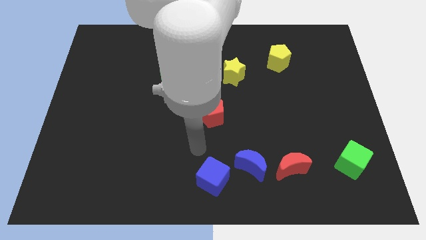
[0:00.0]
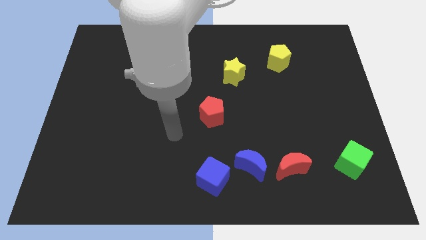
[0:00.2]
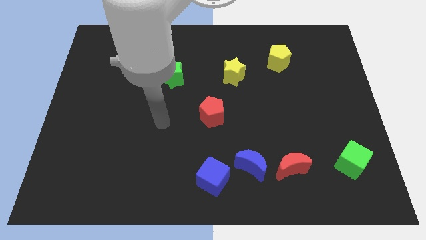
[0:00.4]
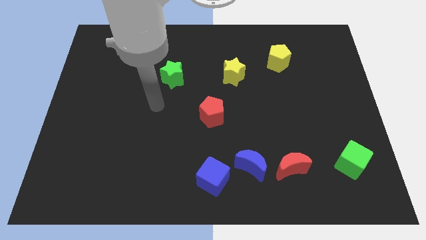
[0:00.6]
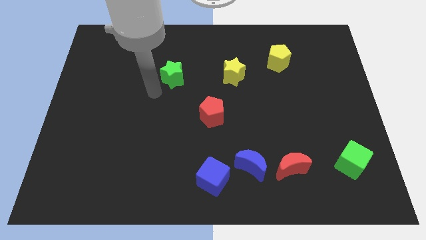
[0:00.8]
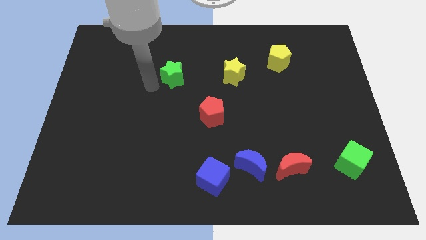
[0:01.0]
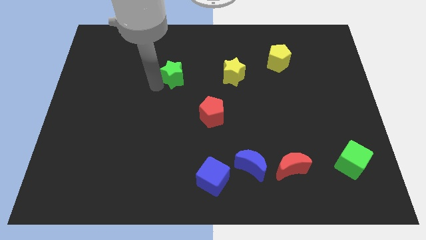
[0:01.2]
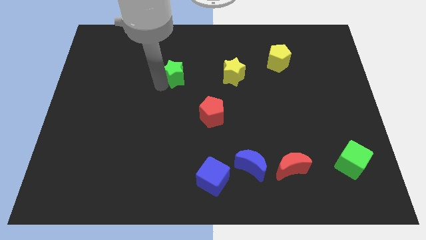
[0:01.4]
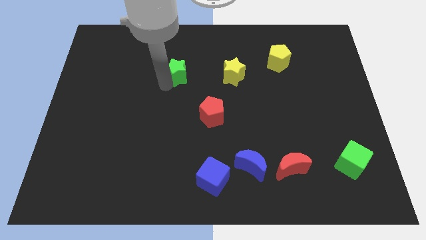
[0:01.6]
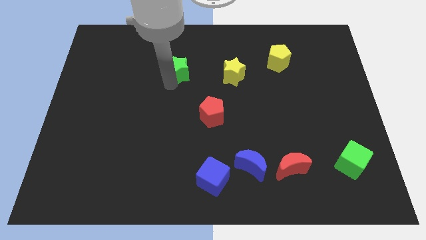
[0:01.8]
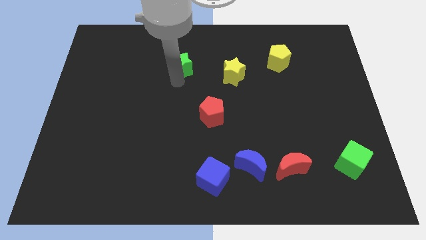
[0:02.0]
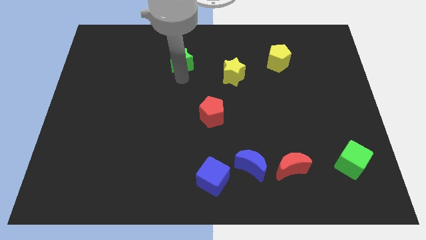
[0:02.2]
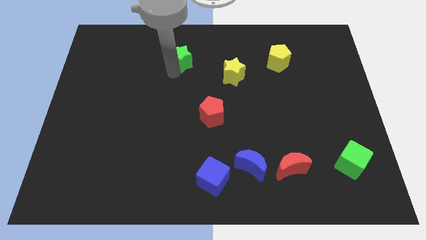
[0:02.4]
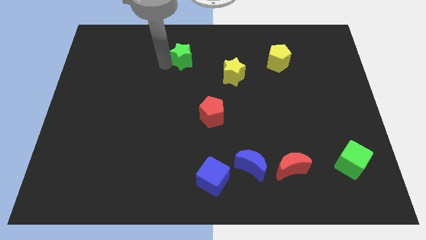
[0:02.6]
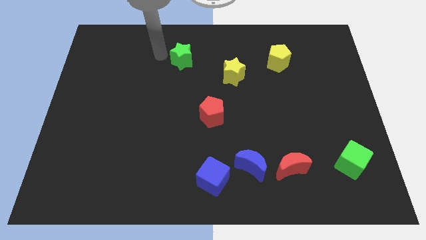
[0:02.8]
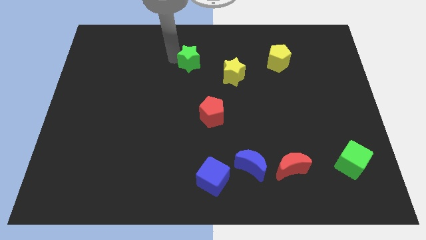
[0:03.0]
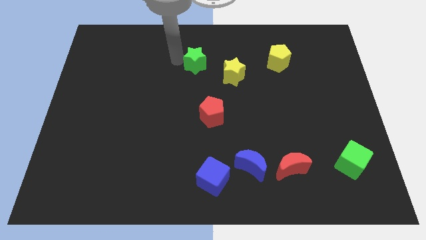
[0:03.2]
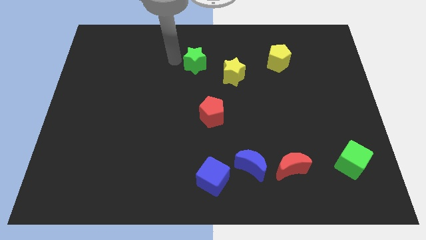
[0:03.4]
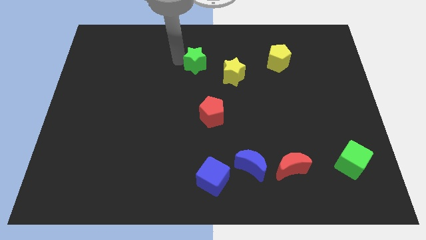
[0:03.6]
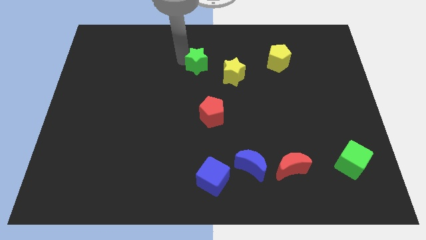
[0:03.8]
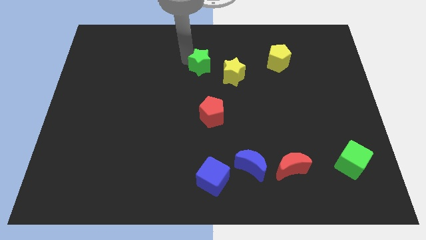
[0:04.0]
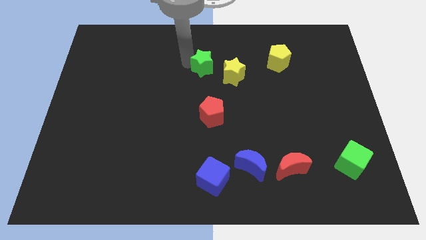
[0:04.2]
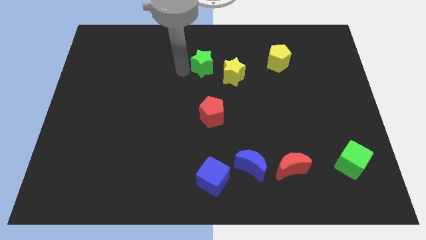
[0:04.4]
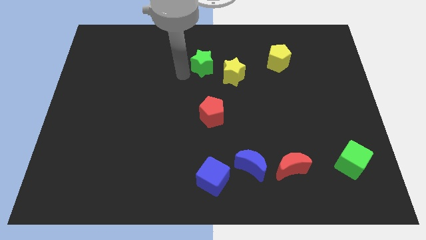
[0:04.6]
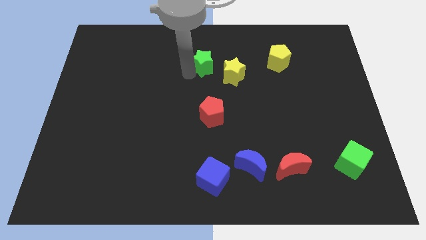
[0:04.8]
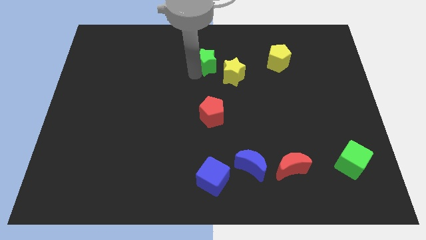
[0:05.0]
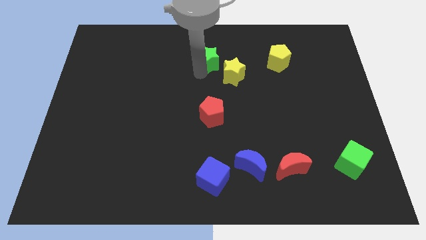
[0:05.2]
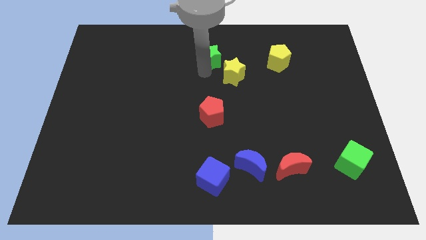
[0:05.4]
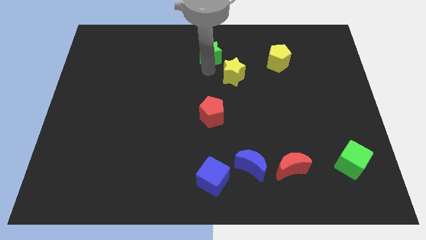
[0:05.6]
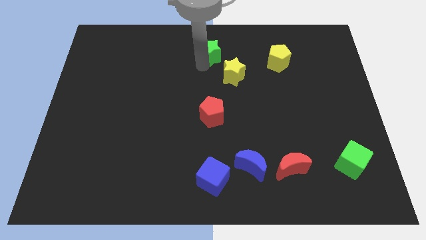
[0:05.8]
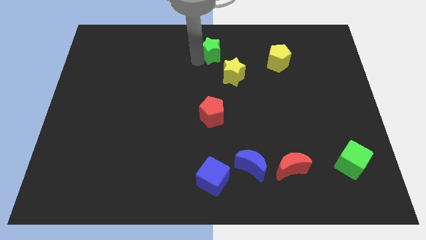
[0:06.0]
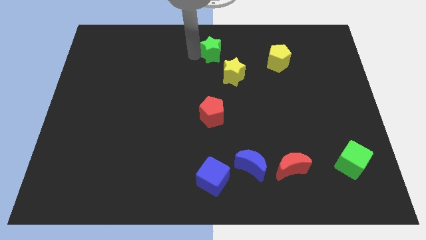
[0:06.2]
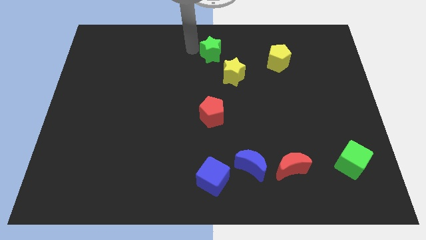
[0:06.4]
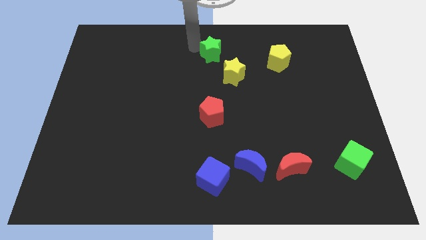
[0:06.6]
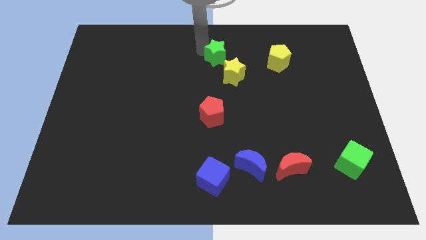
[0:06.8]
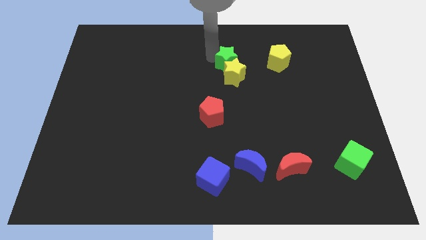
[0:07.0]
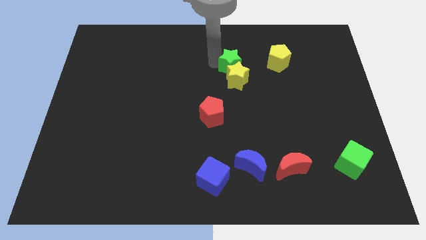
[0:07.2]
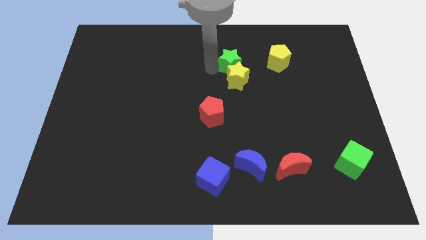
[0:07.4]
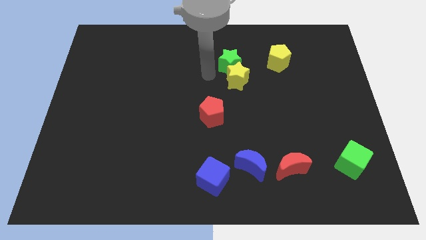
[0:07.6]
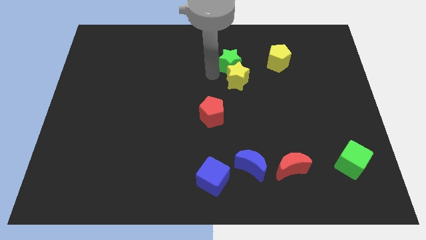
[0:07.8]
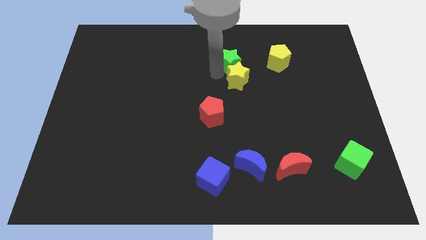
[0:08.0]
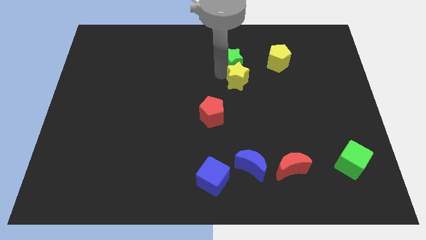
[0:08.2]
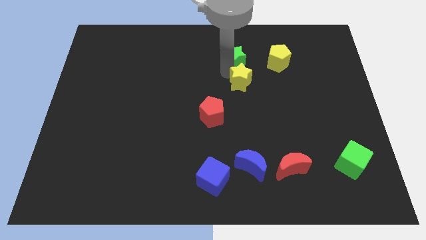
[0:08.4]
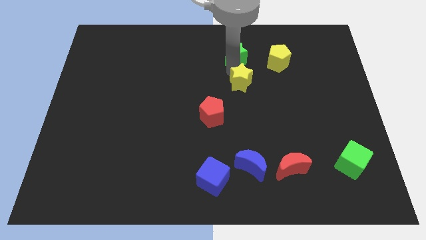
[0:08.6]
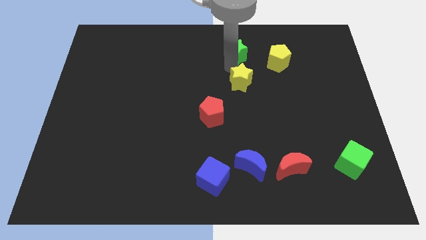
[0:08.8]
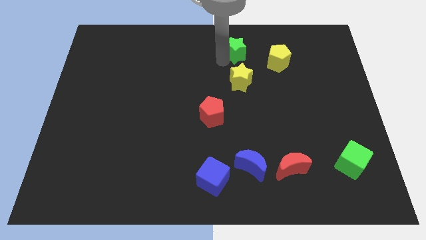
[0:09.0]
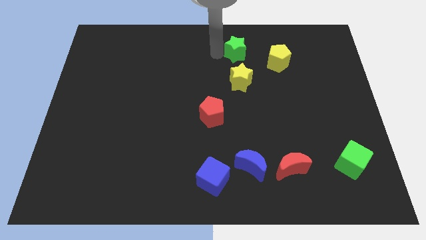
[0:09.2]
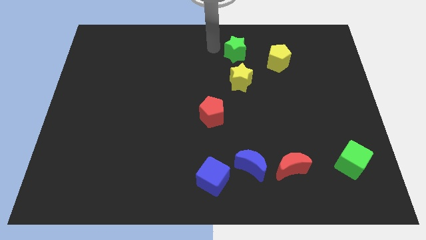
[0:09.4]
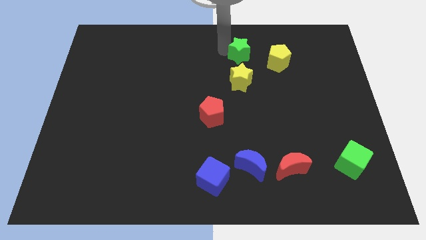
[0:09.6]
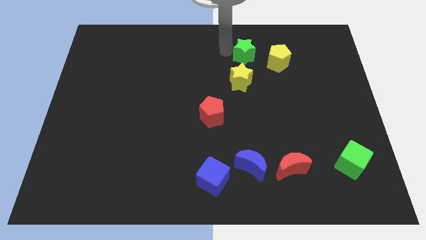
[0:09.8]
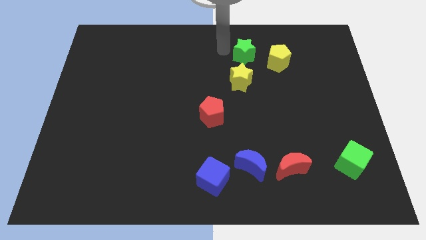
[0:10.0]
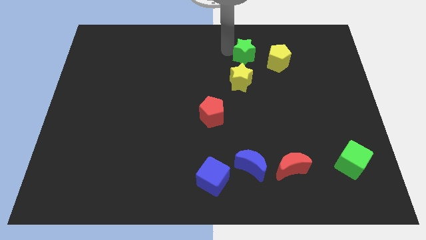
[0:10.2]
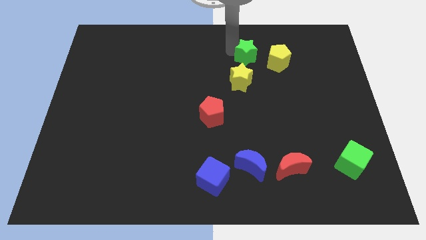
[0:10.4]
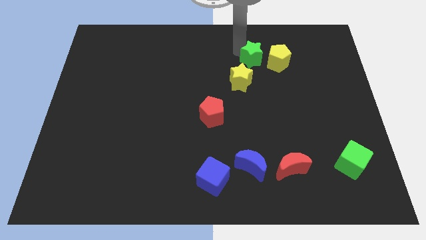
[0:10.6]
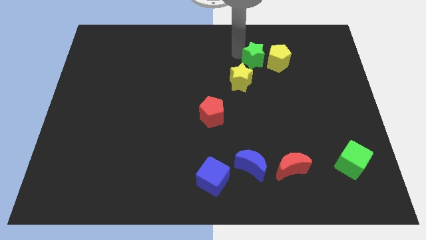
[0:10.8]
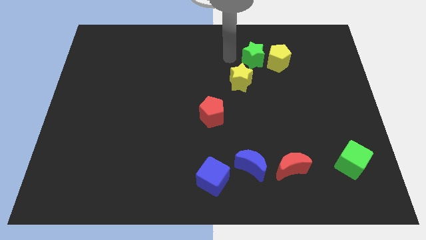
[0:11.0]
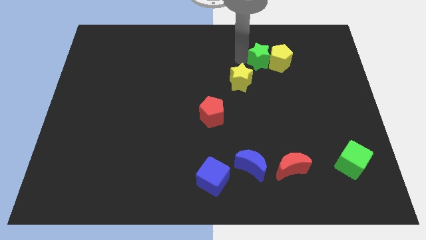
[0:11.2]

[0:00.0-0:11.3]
slide the green star next to the yellow pentagon
